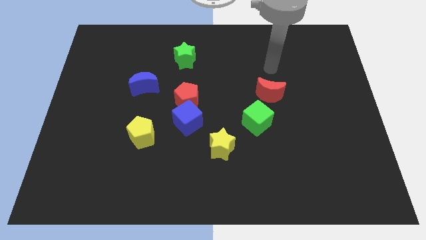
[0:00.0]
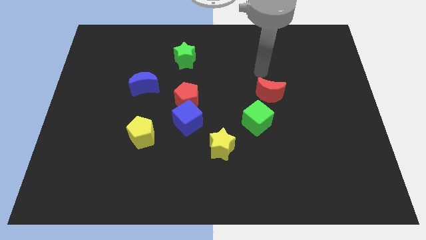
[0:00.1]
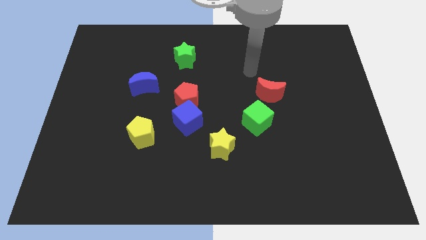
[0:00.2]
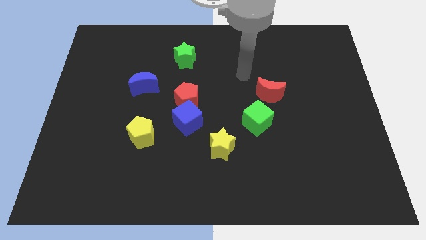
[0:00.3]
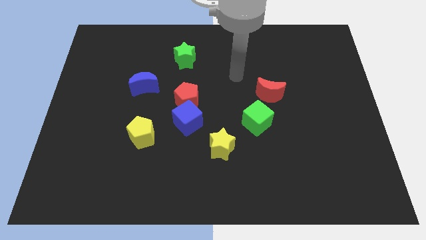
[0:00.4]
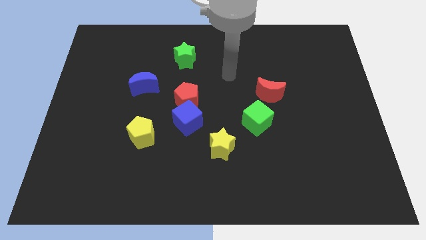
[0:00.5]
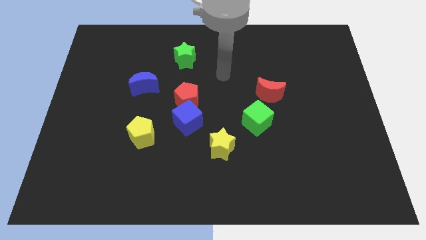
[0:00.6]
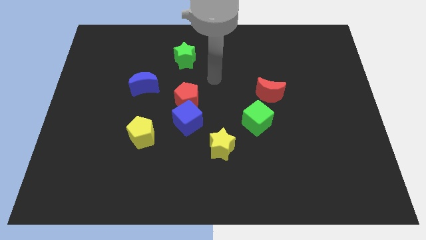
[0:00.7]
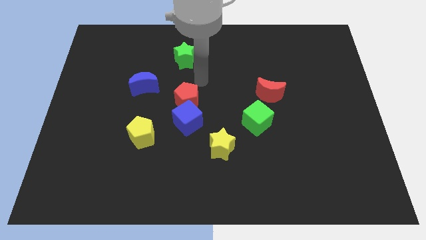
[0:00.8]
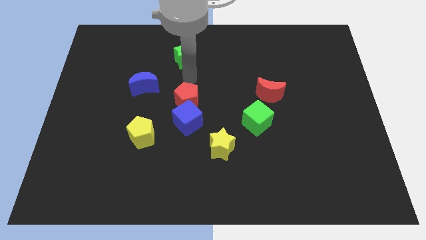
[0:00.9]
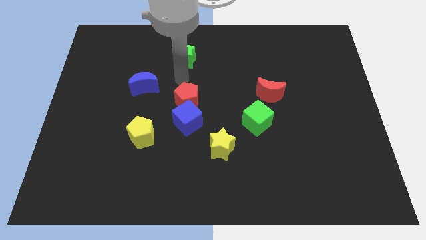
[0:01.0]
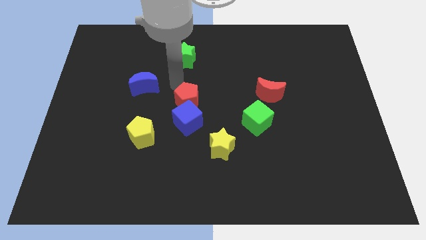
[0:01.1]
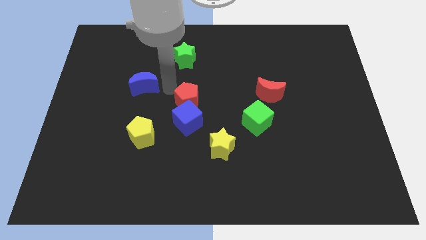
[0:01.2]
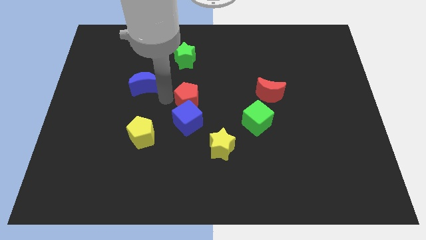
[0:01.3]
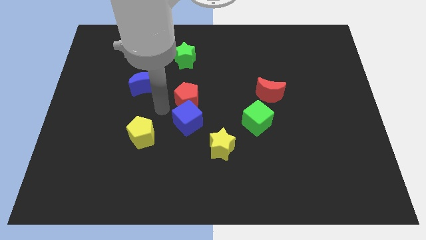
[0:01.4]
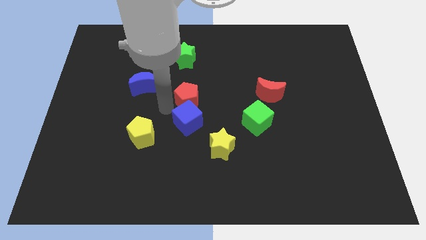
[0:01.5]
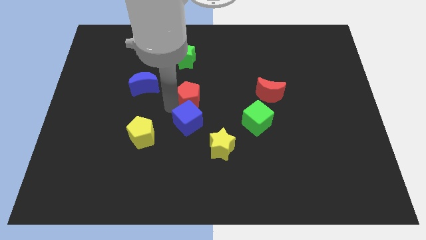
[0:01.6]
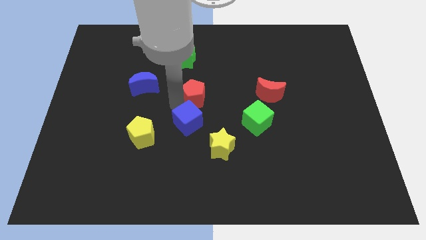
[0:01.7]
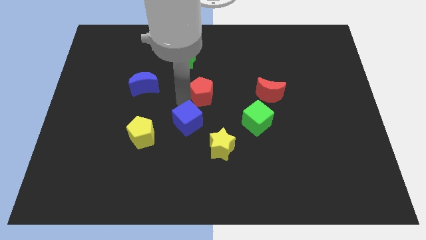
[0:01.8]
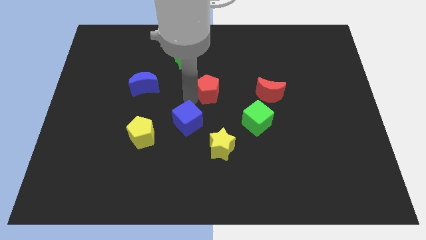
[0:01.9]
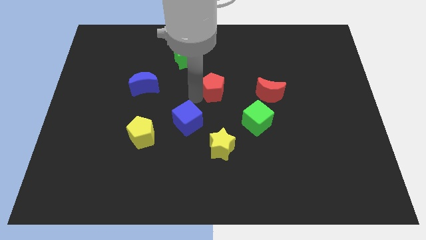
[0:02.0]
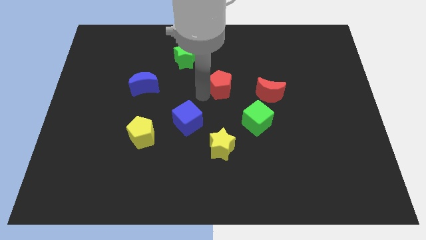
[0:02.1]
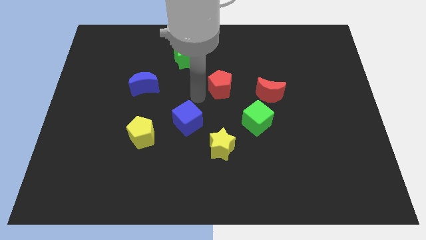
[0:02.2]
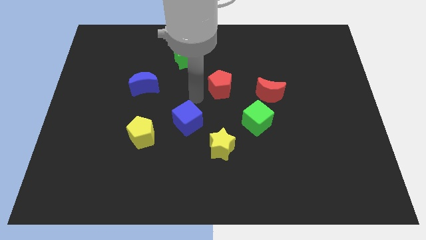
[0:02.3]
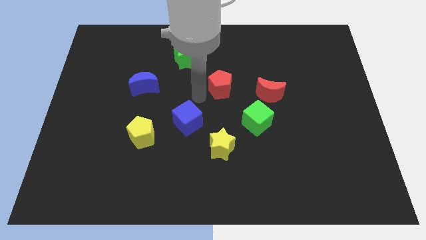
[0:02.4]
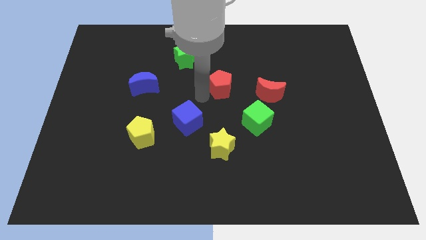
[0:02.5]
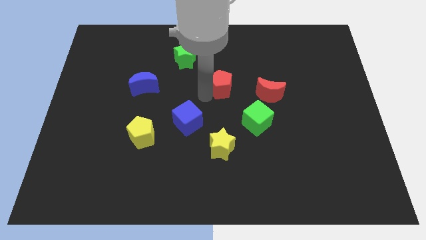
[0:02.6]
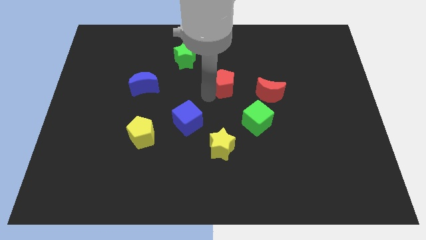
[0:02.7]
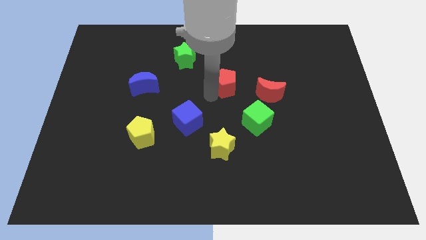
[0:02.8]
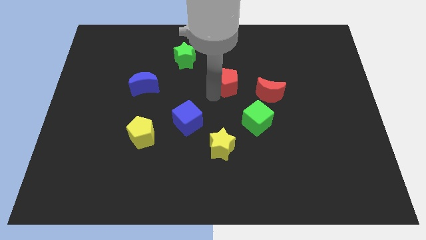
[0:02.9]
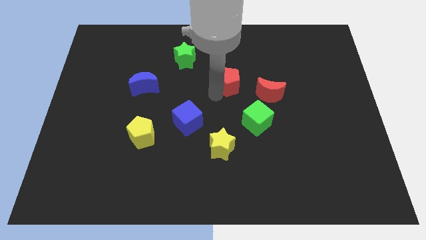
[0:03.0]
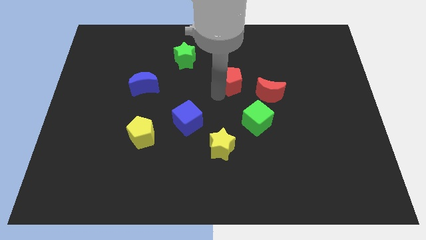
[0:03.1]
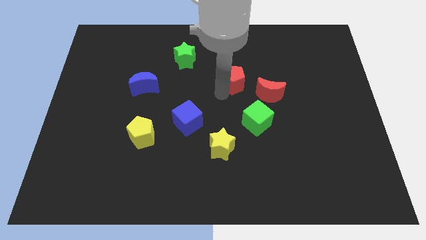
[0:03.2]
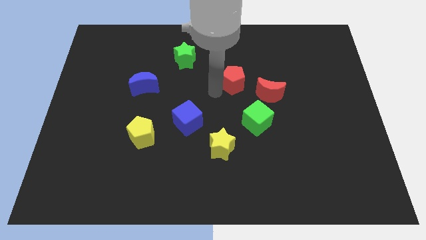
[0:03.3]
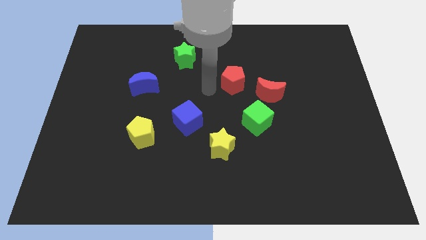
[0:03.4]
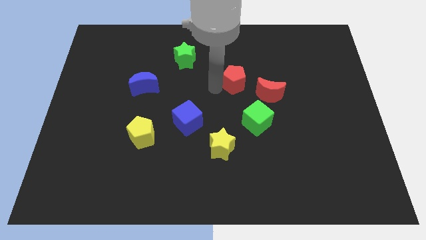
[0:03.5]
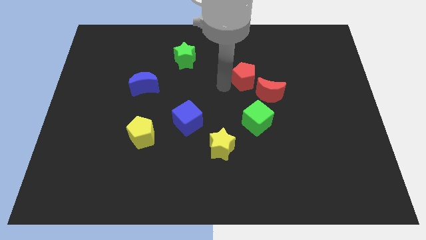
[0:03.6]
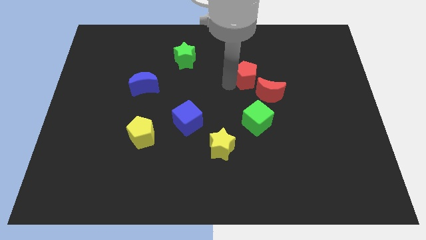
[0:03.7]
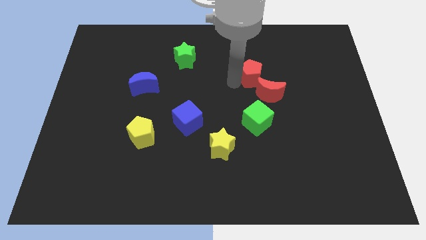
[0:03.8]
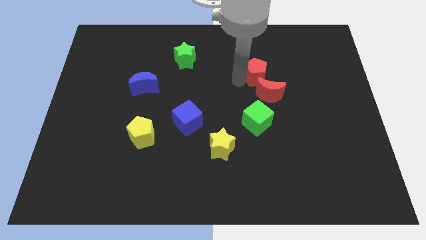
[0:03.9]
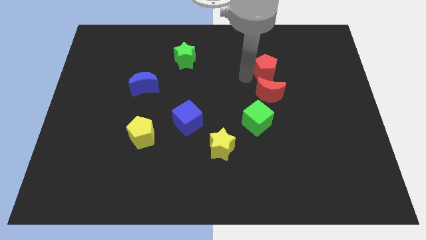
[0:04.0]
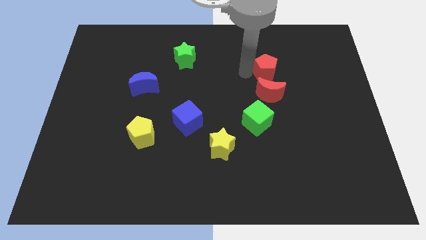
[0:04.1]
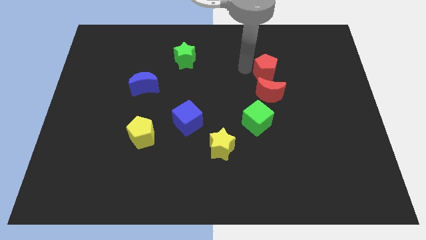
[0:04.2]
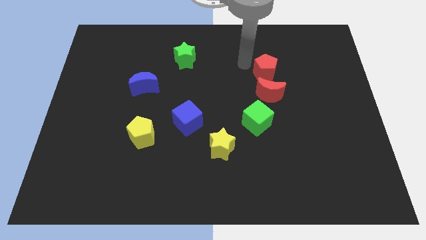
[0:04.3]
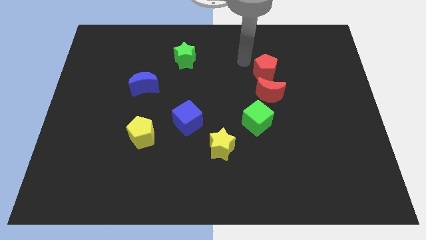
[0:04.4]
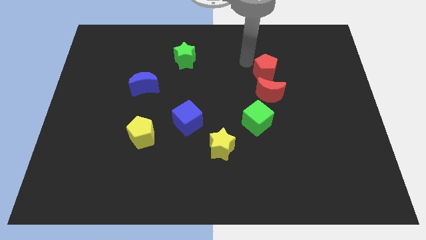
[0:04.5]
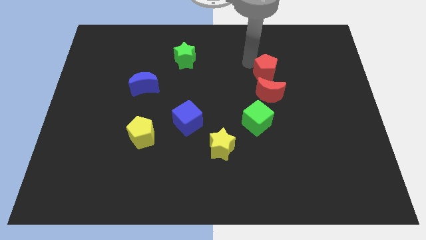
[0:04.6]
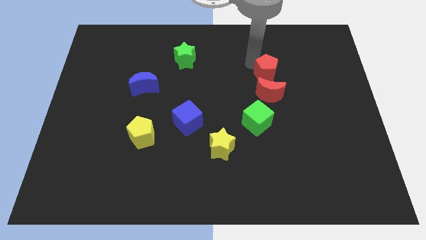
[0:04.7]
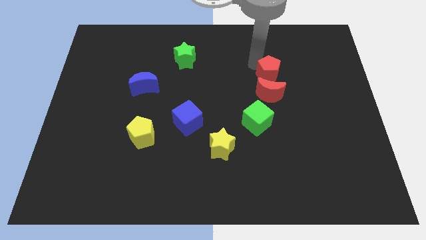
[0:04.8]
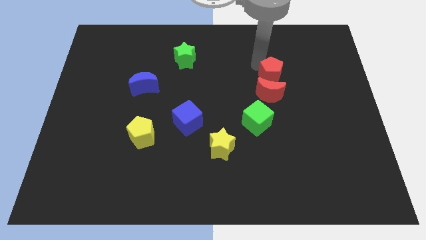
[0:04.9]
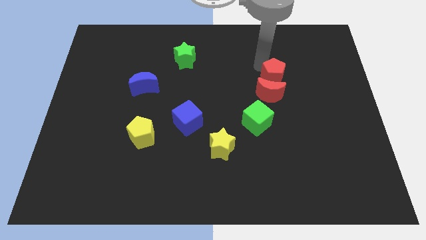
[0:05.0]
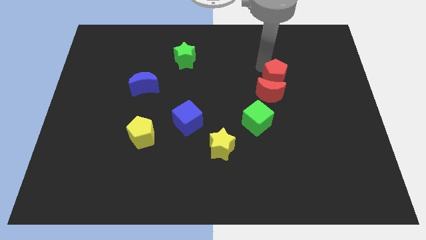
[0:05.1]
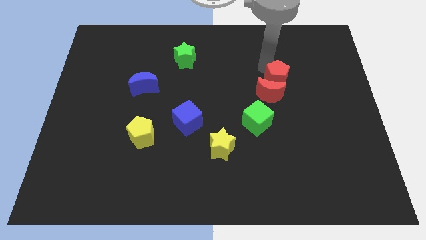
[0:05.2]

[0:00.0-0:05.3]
move the red pentagon to the right

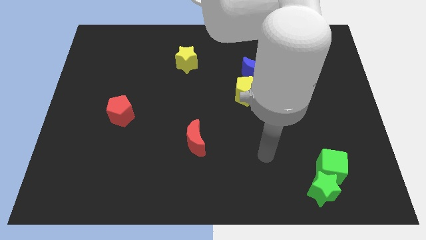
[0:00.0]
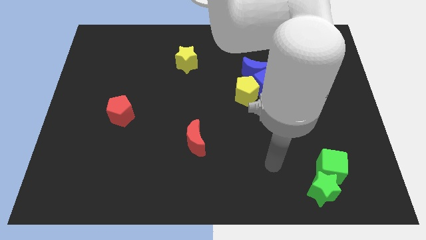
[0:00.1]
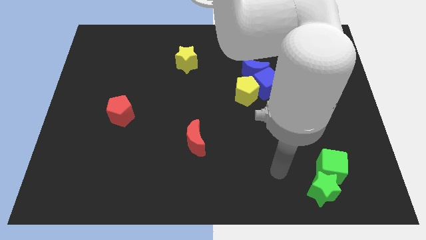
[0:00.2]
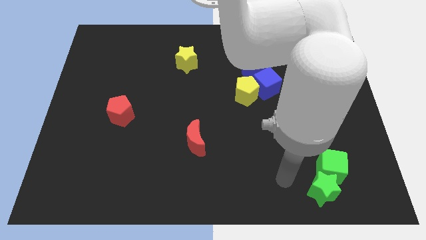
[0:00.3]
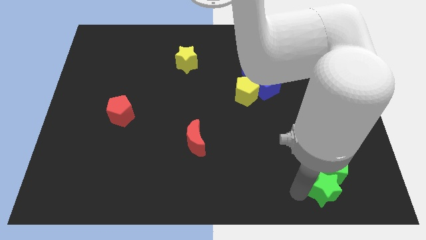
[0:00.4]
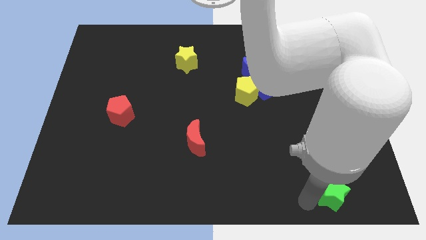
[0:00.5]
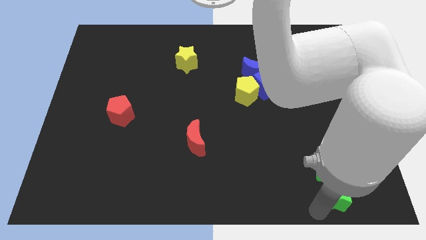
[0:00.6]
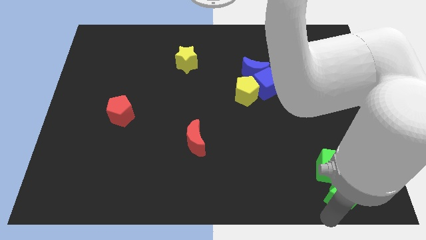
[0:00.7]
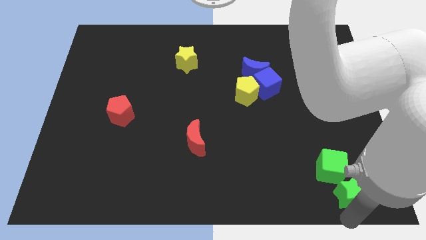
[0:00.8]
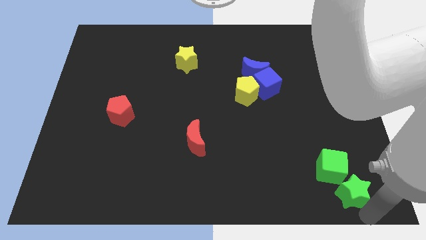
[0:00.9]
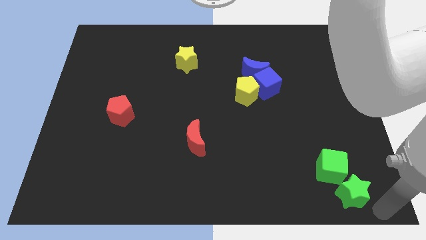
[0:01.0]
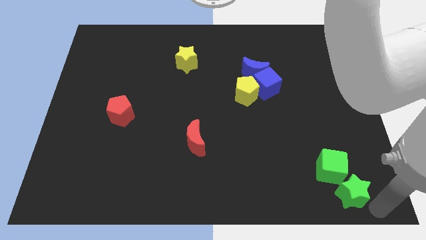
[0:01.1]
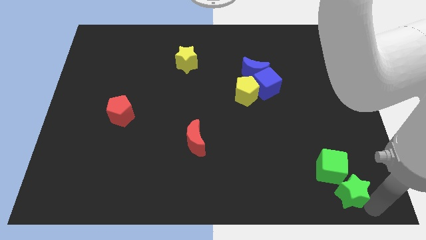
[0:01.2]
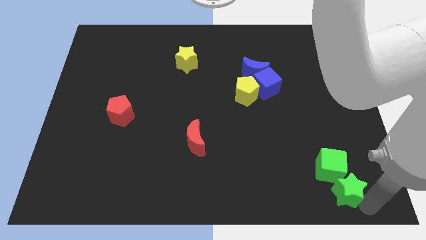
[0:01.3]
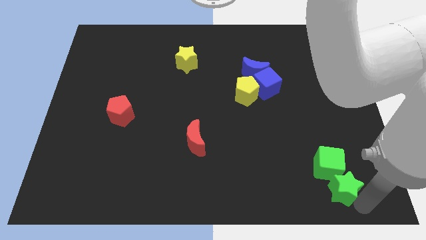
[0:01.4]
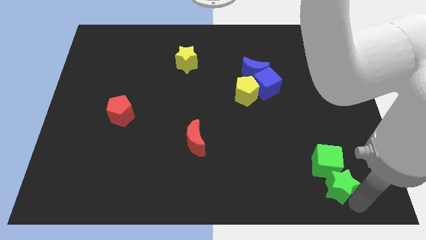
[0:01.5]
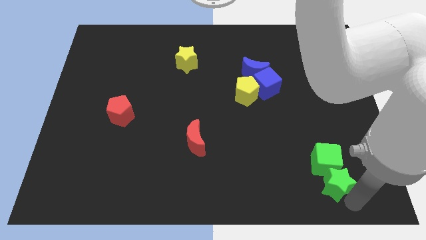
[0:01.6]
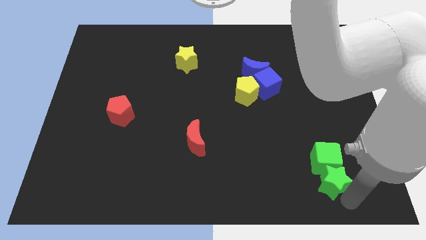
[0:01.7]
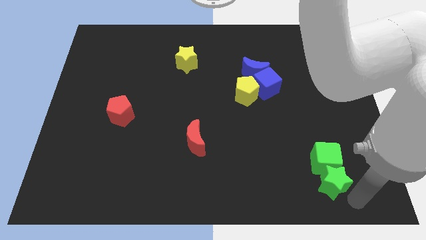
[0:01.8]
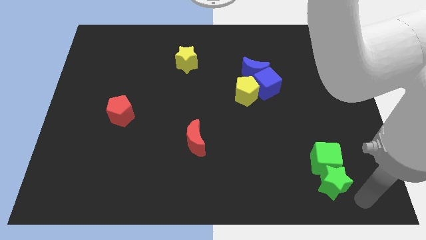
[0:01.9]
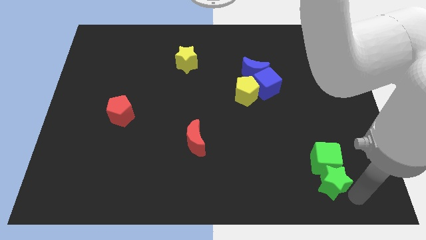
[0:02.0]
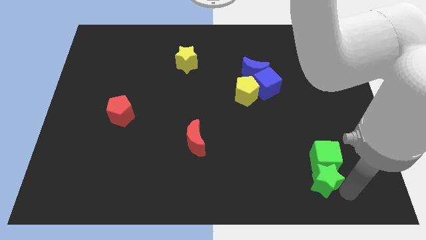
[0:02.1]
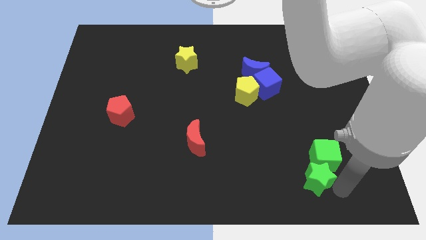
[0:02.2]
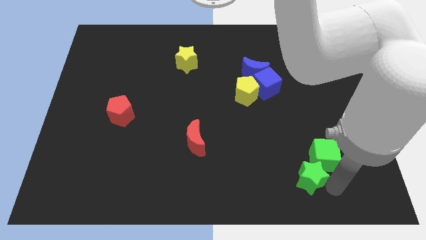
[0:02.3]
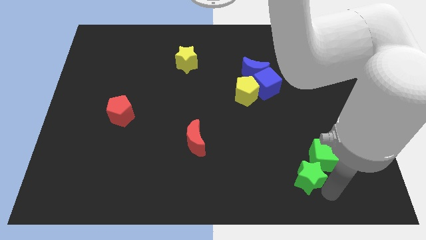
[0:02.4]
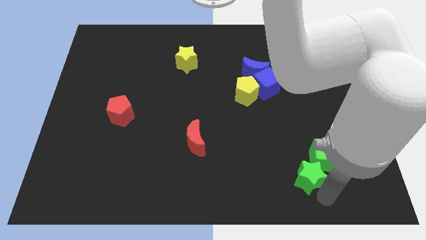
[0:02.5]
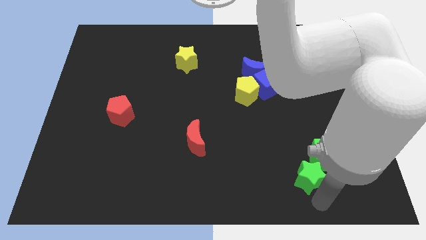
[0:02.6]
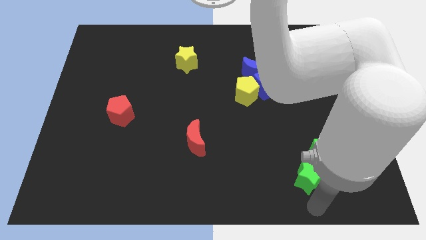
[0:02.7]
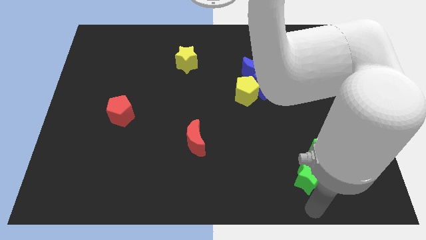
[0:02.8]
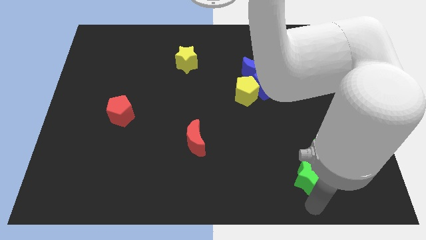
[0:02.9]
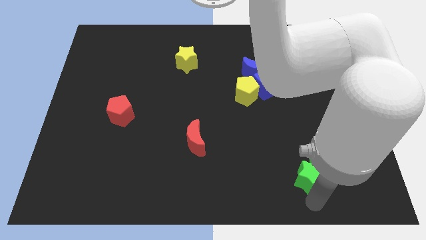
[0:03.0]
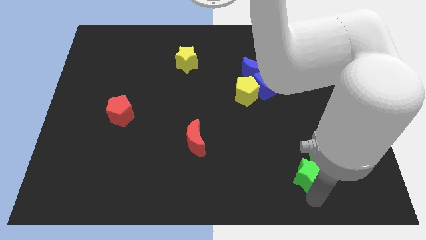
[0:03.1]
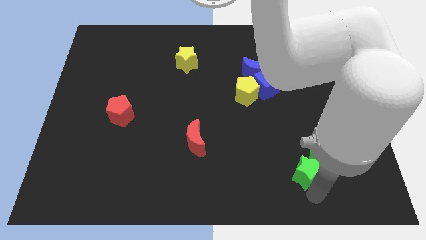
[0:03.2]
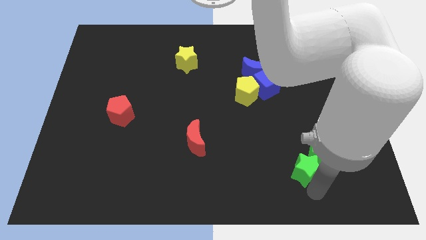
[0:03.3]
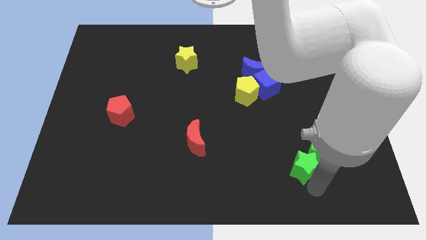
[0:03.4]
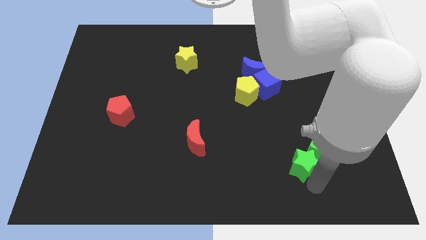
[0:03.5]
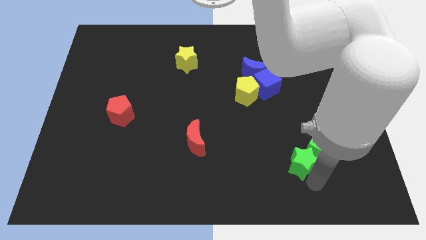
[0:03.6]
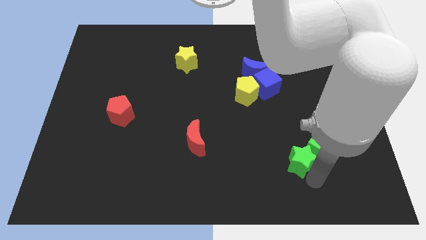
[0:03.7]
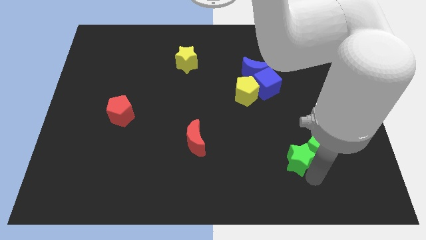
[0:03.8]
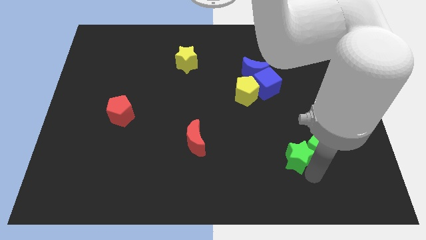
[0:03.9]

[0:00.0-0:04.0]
move the green star upwards somewhat
